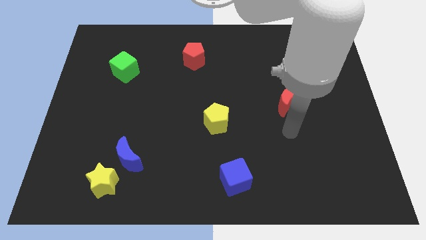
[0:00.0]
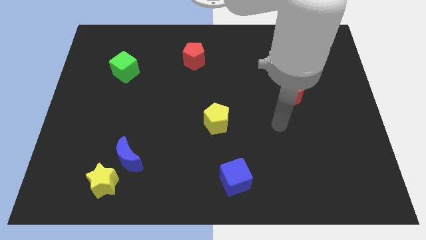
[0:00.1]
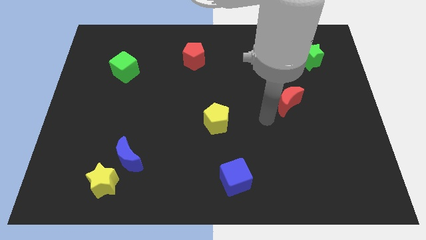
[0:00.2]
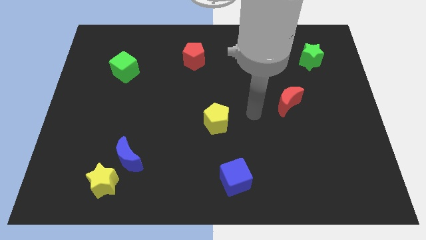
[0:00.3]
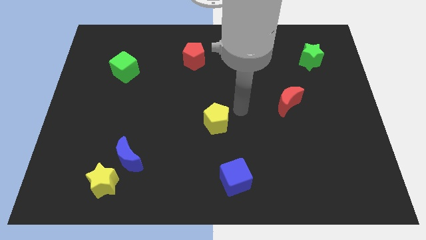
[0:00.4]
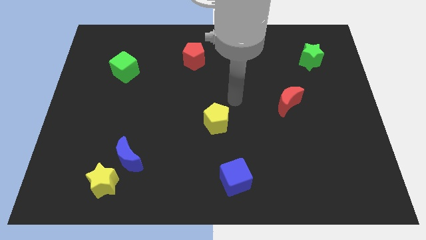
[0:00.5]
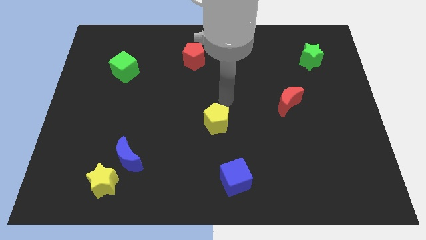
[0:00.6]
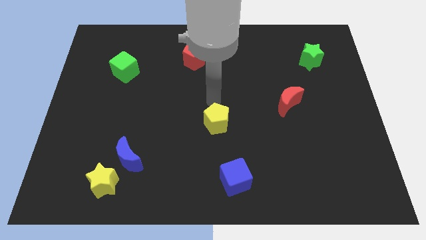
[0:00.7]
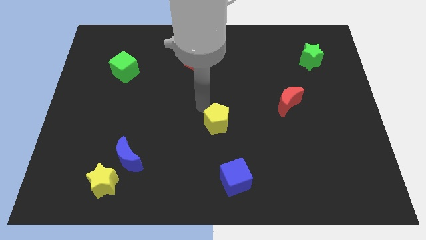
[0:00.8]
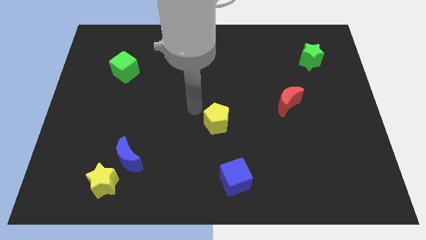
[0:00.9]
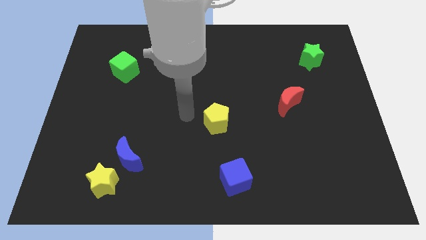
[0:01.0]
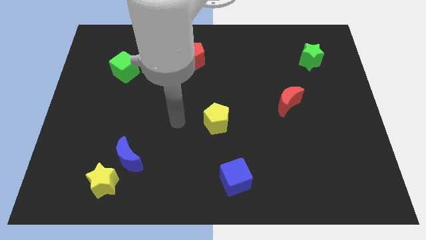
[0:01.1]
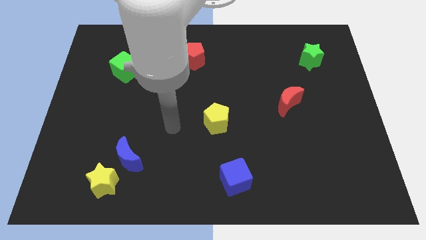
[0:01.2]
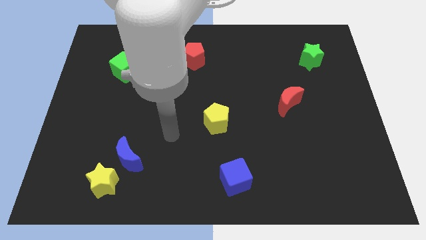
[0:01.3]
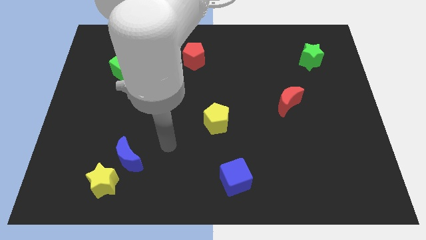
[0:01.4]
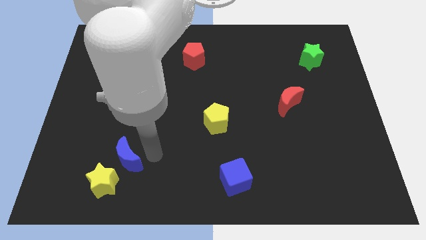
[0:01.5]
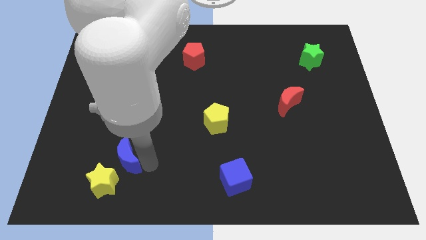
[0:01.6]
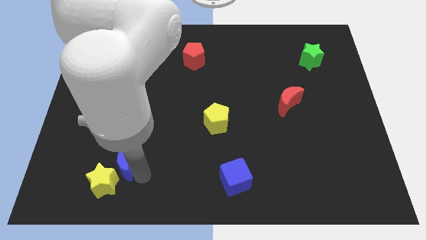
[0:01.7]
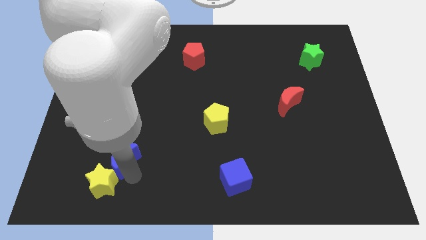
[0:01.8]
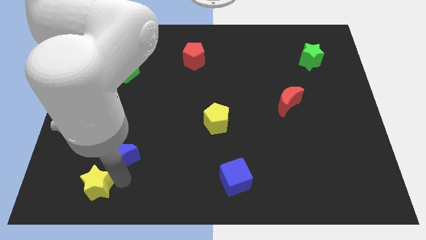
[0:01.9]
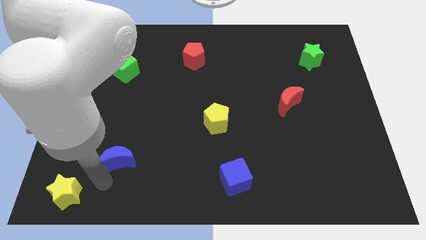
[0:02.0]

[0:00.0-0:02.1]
pull the blue moon apart from the yellow star

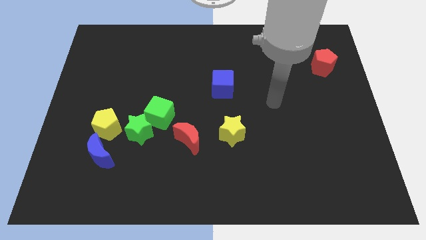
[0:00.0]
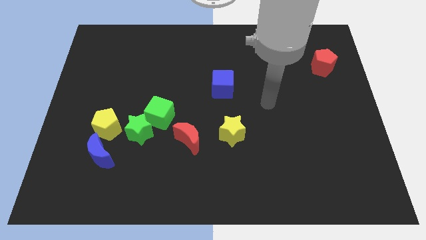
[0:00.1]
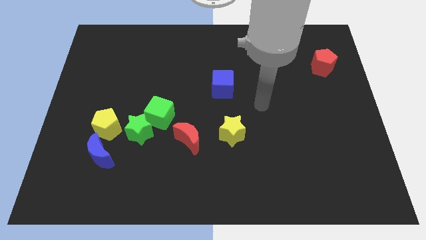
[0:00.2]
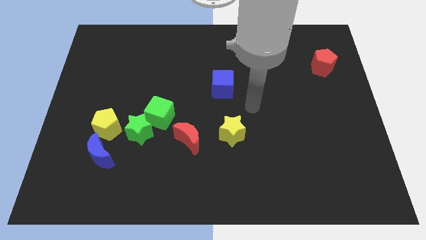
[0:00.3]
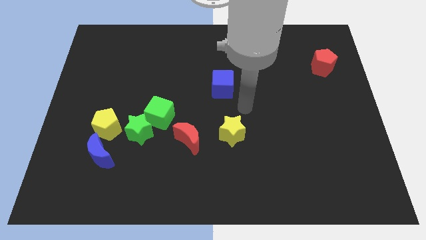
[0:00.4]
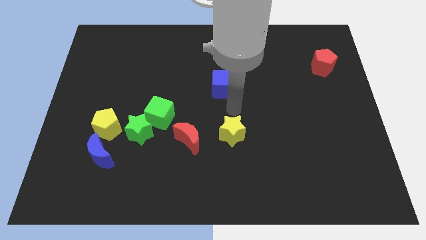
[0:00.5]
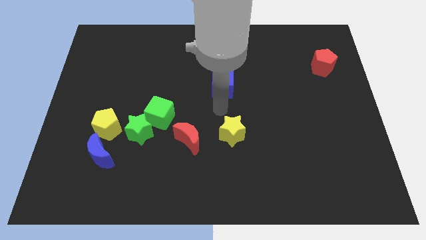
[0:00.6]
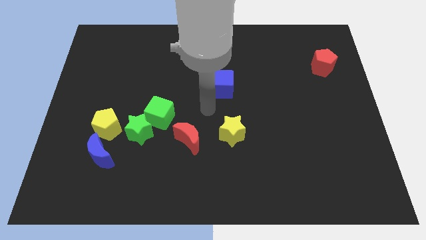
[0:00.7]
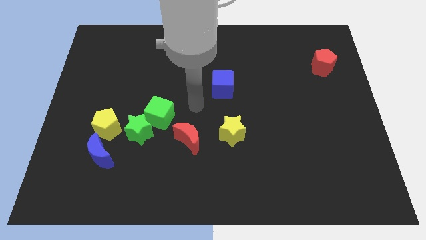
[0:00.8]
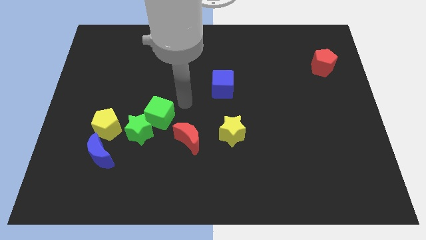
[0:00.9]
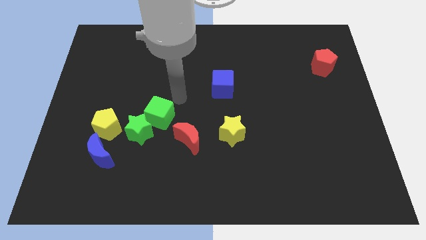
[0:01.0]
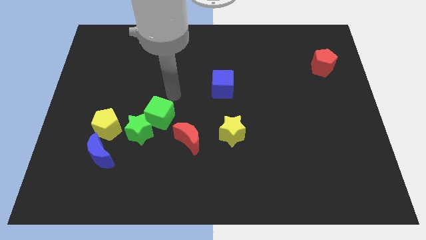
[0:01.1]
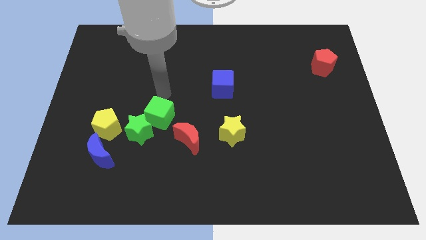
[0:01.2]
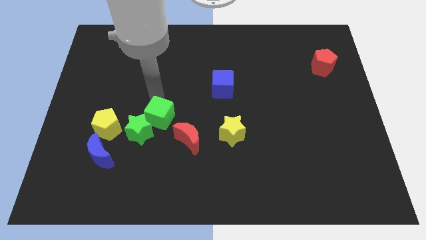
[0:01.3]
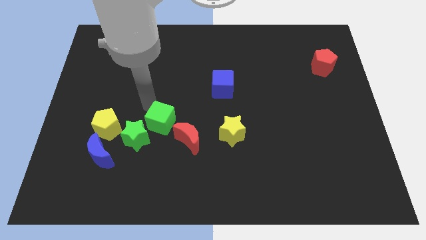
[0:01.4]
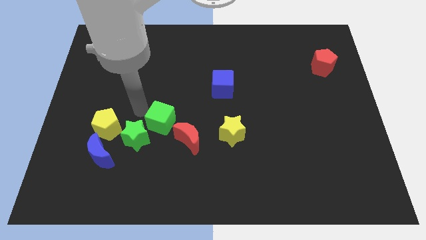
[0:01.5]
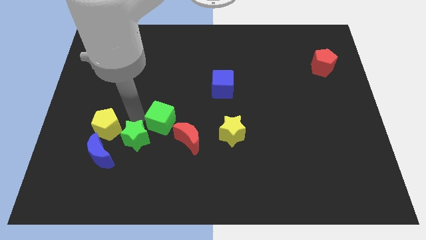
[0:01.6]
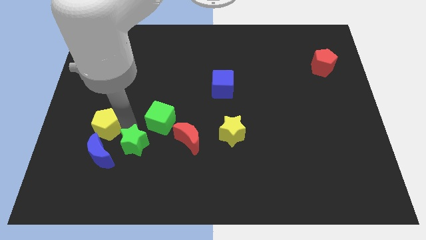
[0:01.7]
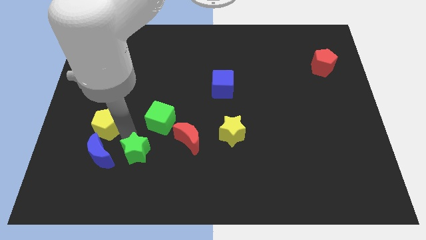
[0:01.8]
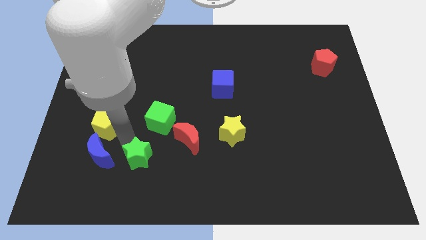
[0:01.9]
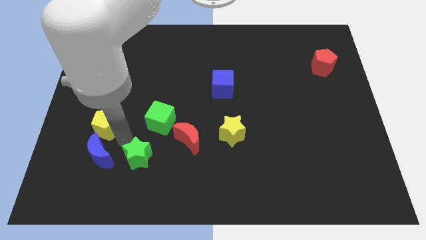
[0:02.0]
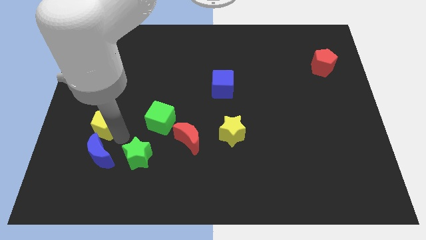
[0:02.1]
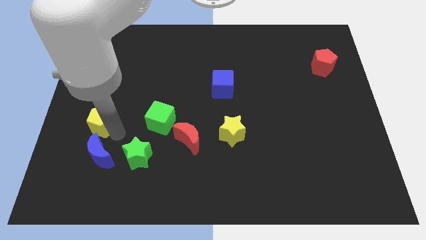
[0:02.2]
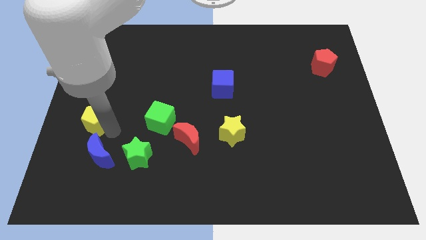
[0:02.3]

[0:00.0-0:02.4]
move the yellow pentagon away from the blue moon and green star

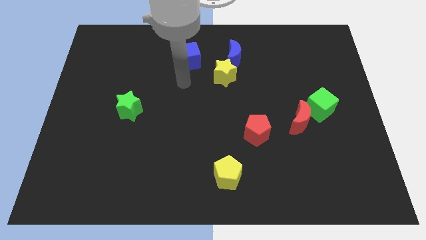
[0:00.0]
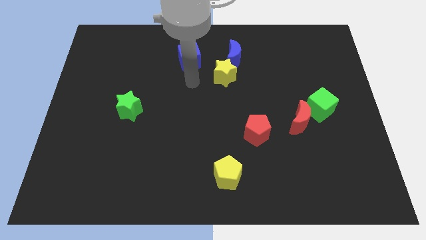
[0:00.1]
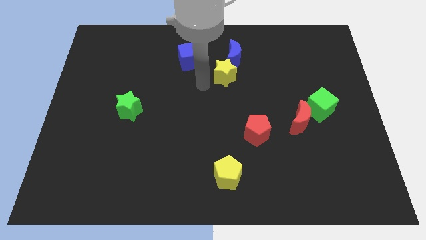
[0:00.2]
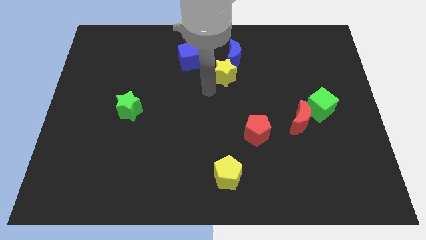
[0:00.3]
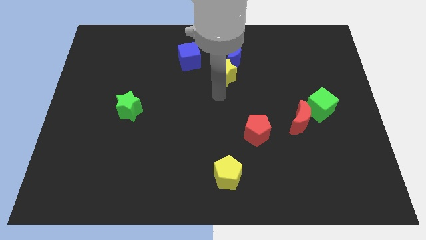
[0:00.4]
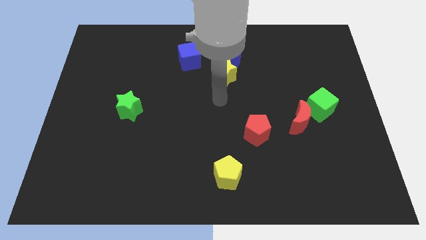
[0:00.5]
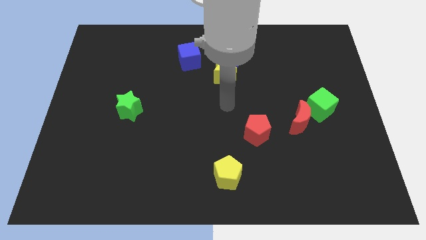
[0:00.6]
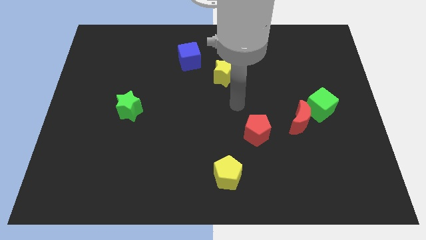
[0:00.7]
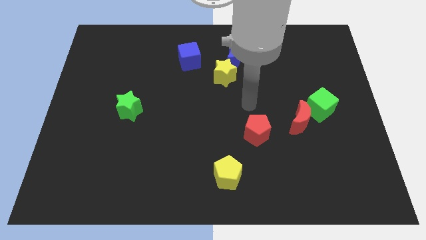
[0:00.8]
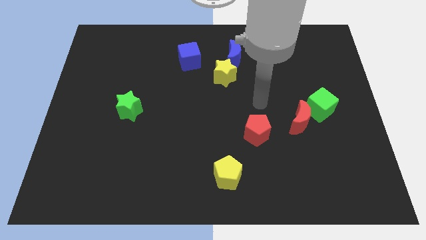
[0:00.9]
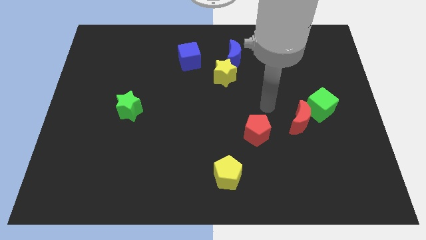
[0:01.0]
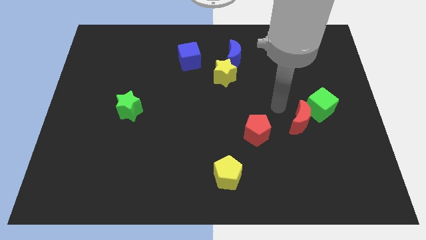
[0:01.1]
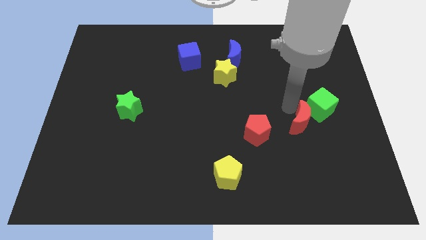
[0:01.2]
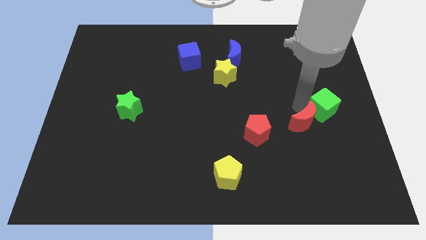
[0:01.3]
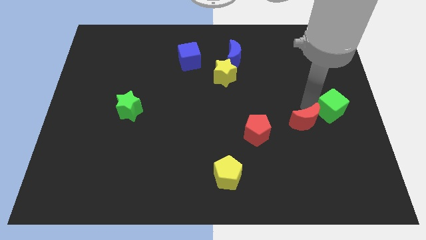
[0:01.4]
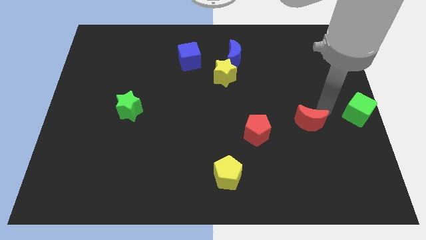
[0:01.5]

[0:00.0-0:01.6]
pull the red moon apart from the green cube

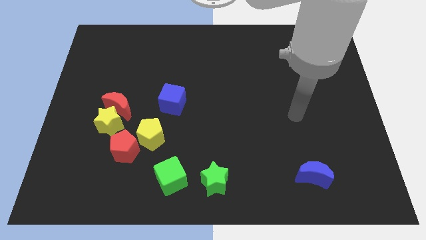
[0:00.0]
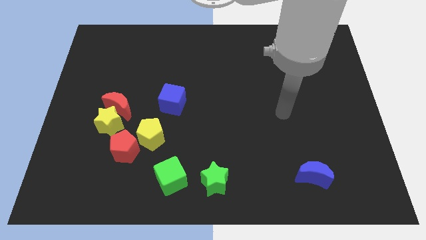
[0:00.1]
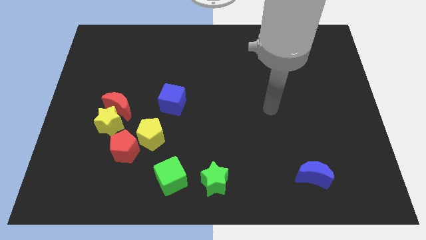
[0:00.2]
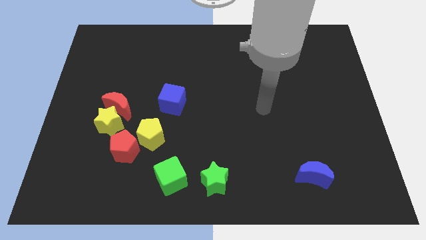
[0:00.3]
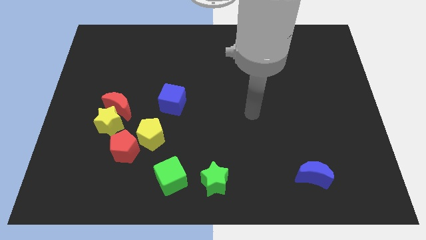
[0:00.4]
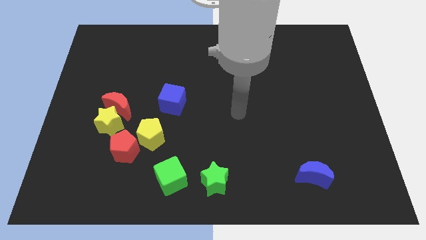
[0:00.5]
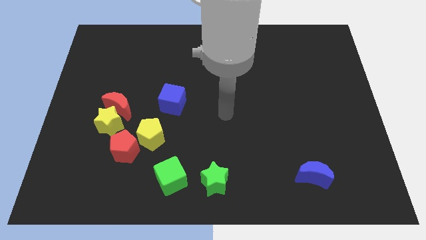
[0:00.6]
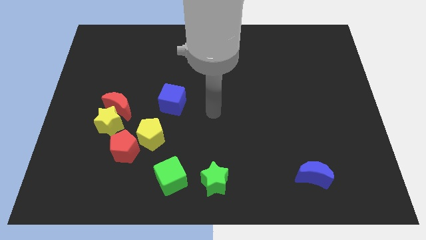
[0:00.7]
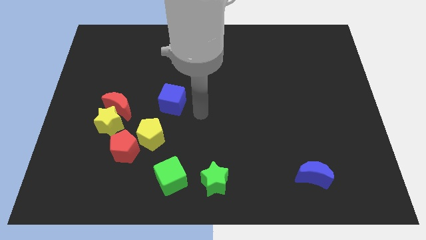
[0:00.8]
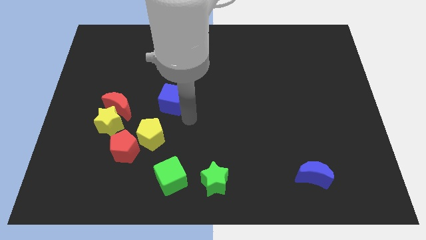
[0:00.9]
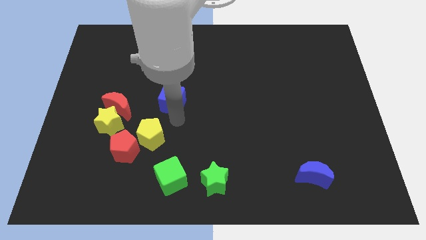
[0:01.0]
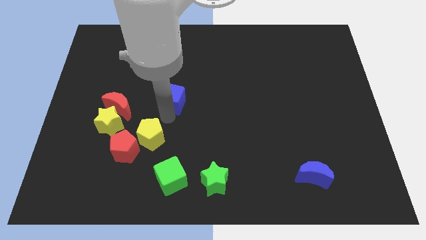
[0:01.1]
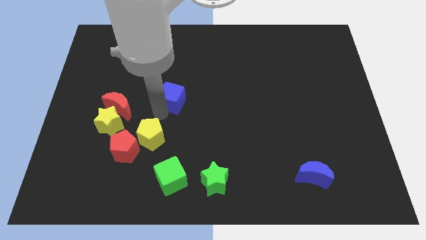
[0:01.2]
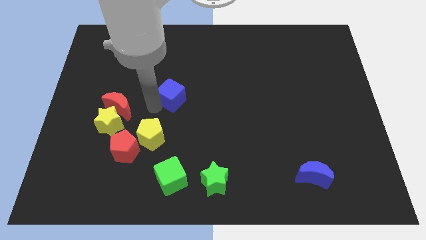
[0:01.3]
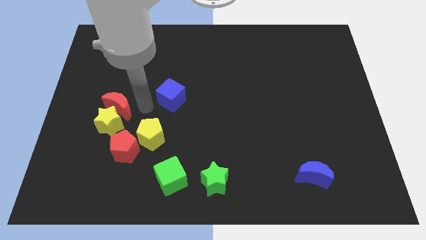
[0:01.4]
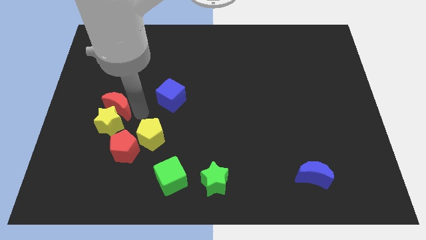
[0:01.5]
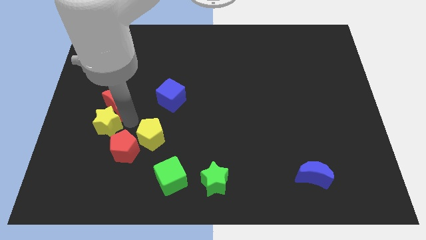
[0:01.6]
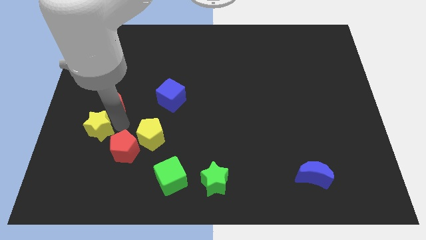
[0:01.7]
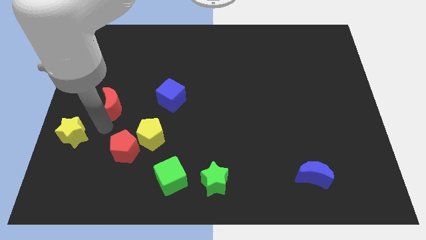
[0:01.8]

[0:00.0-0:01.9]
separate the red moon from the yellow star

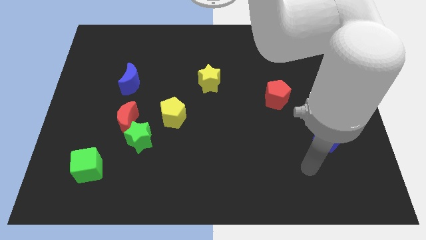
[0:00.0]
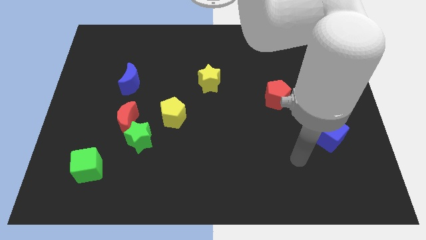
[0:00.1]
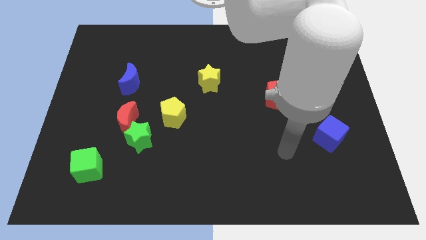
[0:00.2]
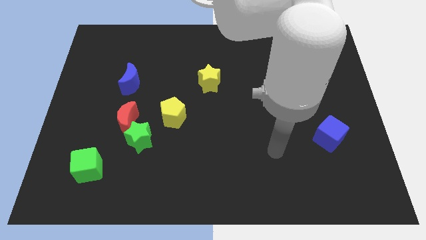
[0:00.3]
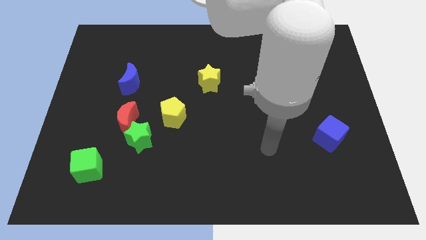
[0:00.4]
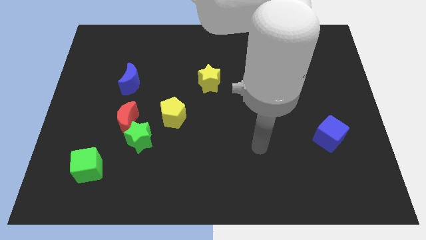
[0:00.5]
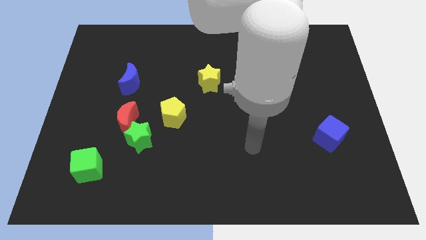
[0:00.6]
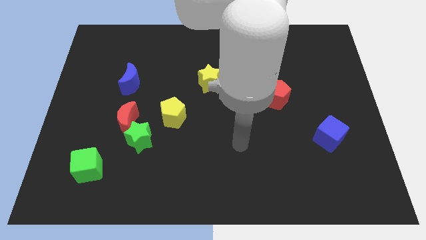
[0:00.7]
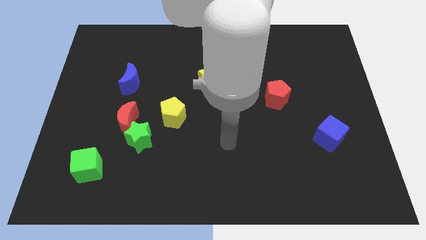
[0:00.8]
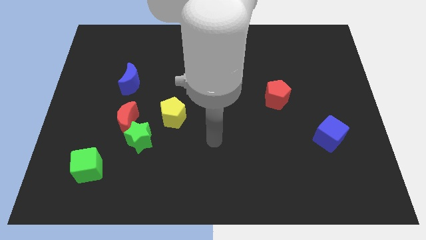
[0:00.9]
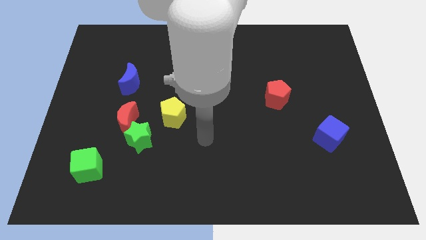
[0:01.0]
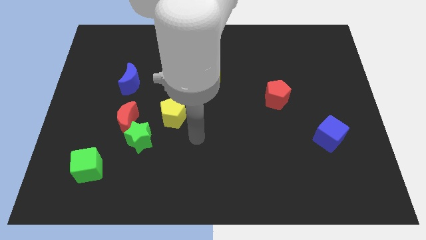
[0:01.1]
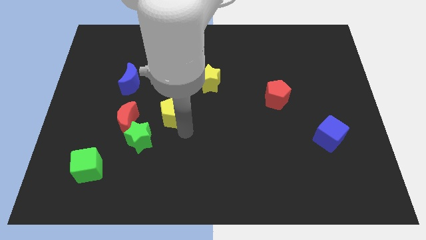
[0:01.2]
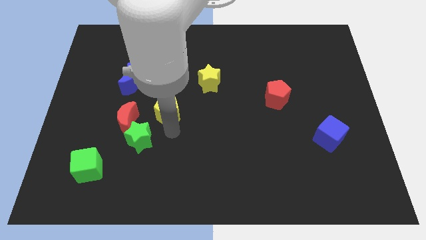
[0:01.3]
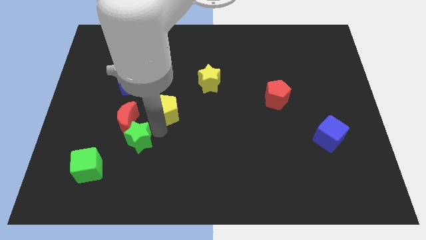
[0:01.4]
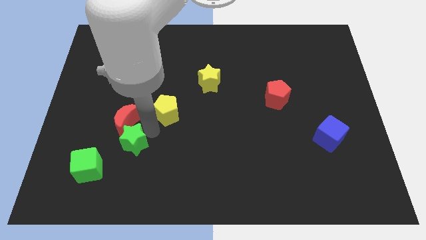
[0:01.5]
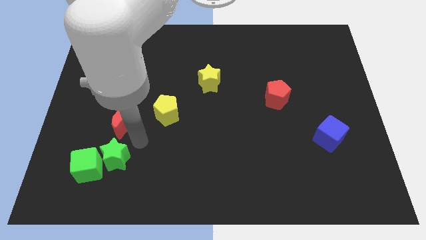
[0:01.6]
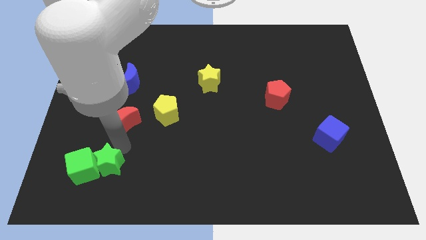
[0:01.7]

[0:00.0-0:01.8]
pull the red moon apart from the green star
